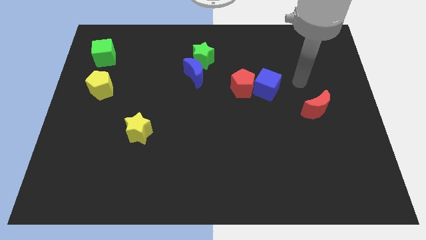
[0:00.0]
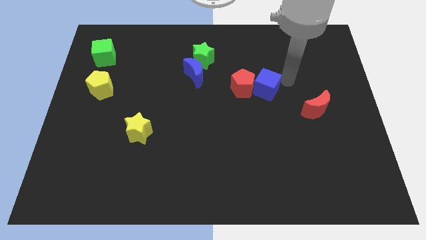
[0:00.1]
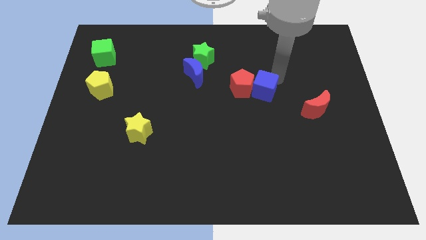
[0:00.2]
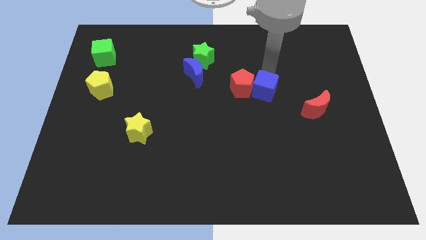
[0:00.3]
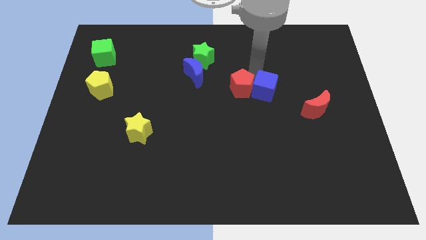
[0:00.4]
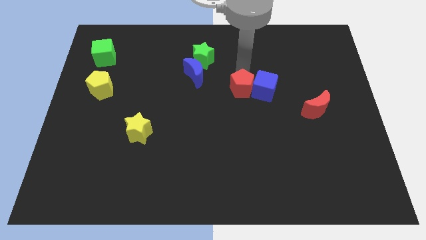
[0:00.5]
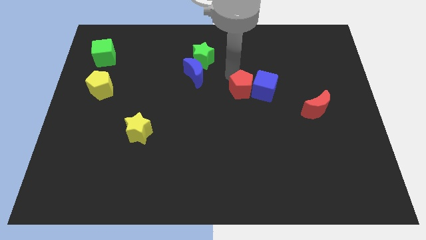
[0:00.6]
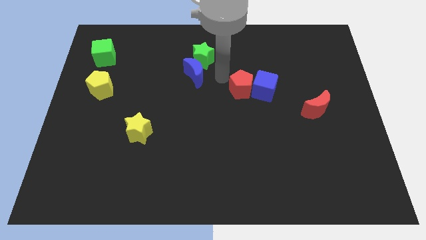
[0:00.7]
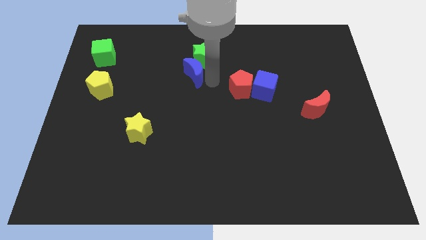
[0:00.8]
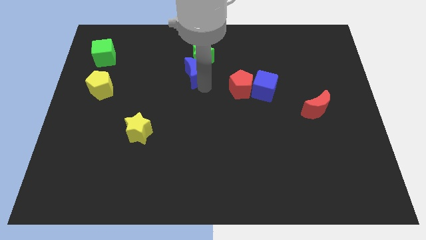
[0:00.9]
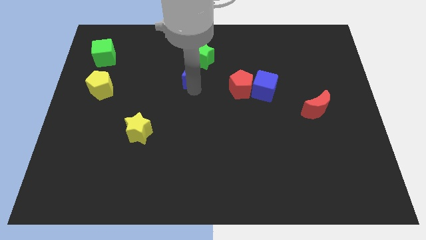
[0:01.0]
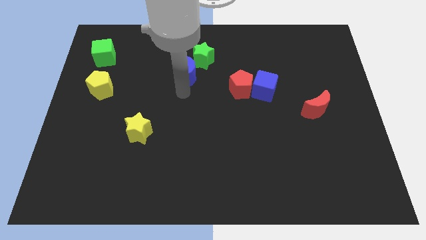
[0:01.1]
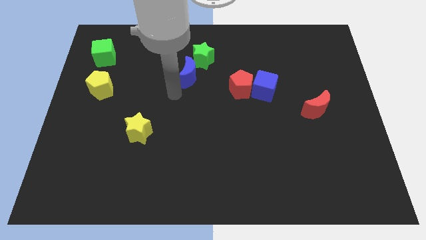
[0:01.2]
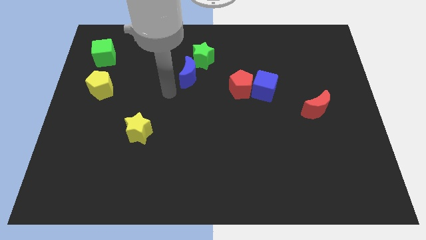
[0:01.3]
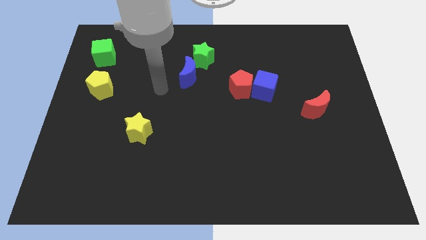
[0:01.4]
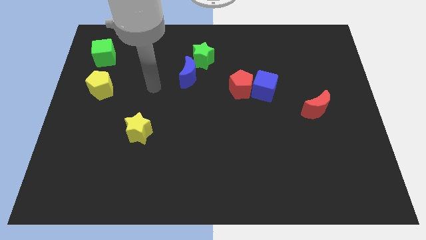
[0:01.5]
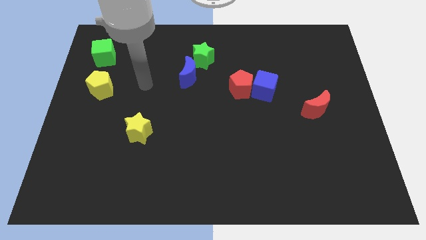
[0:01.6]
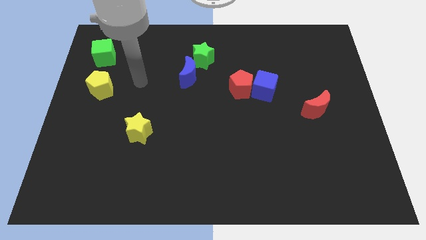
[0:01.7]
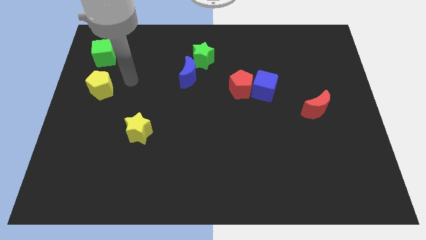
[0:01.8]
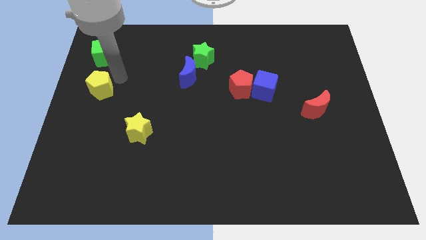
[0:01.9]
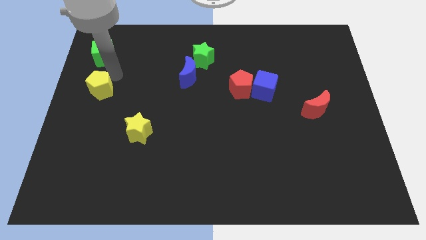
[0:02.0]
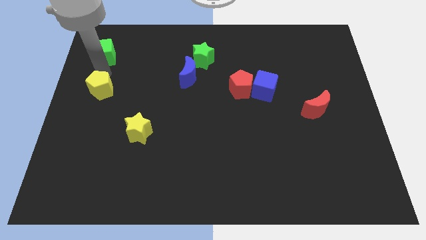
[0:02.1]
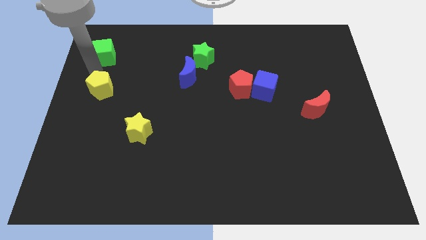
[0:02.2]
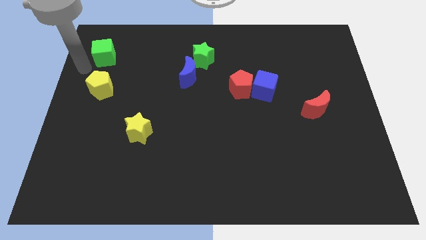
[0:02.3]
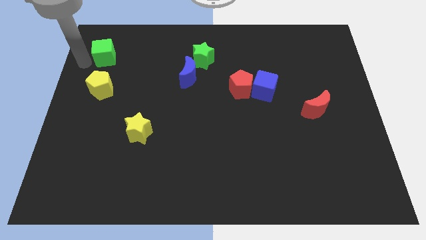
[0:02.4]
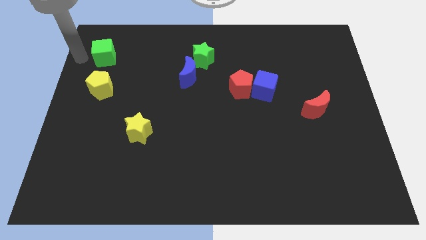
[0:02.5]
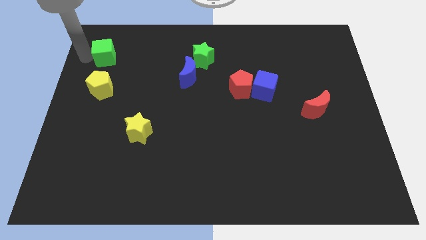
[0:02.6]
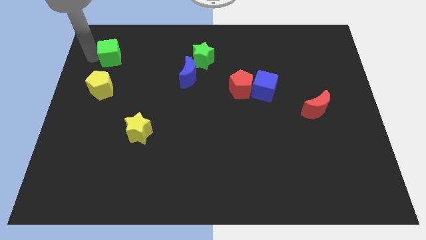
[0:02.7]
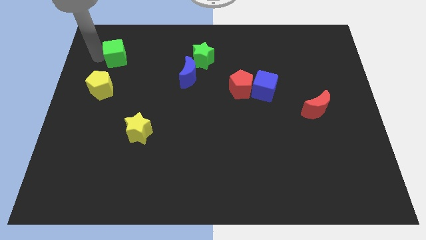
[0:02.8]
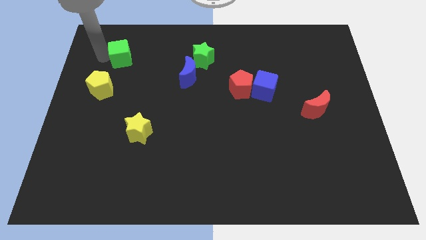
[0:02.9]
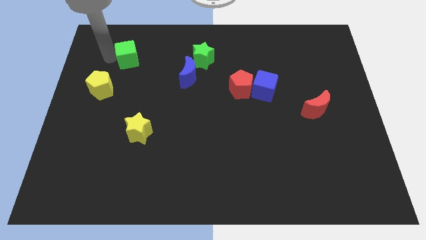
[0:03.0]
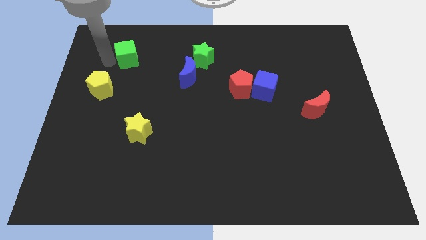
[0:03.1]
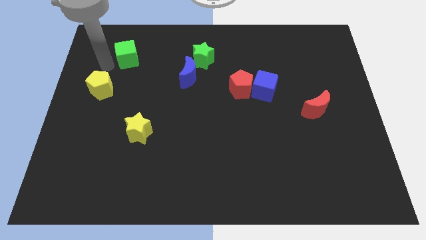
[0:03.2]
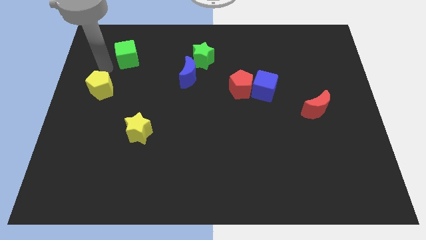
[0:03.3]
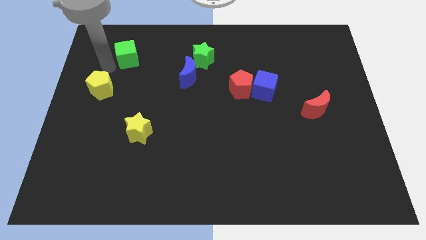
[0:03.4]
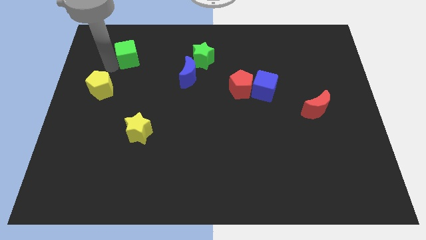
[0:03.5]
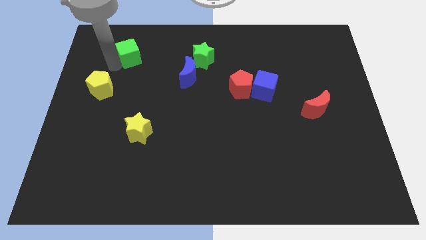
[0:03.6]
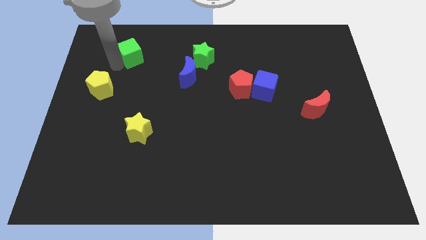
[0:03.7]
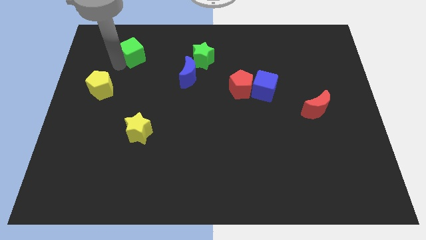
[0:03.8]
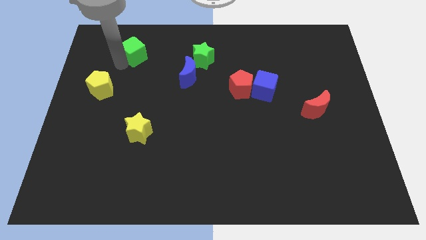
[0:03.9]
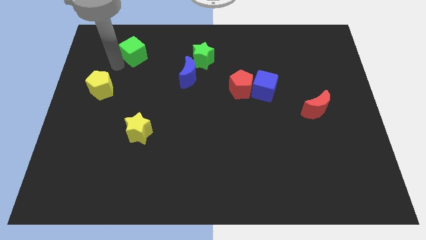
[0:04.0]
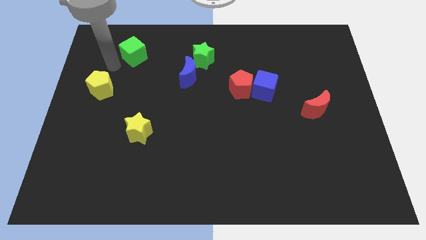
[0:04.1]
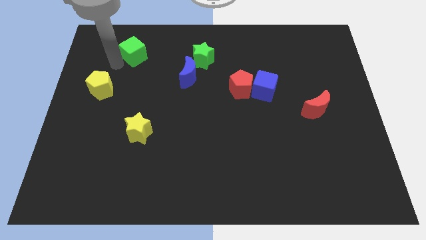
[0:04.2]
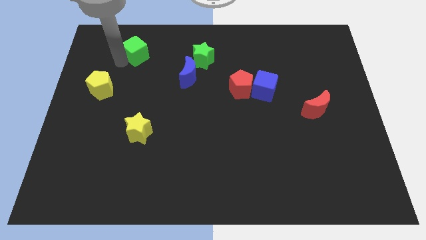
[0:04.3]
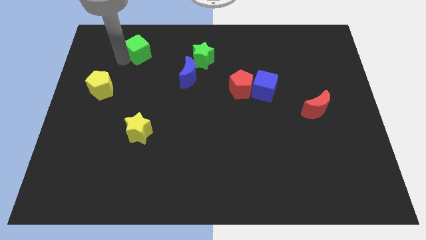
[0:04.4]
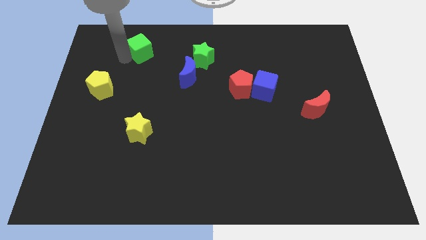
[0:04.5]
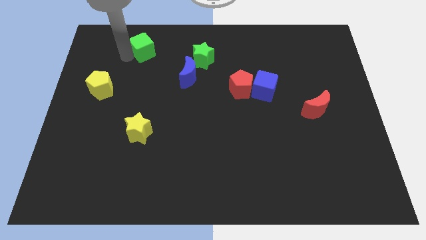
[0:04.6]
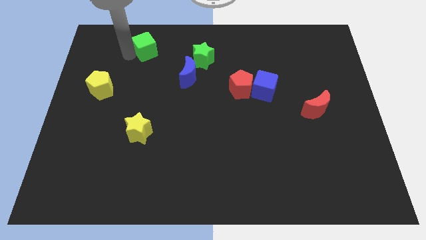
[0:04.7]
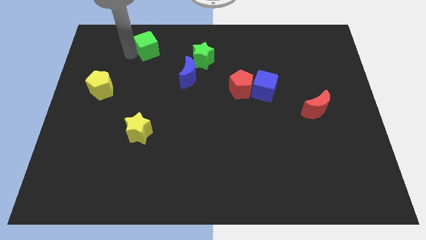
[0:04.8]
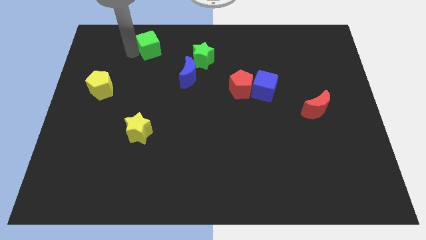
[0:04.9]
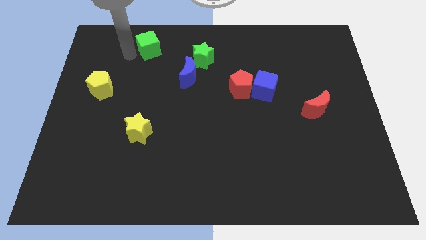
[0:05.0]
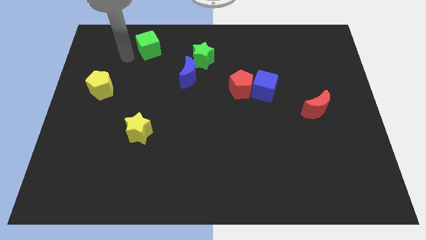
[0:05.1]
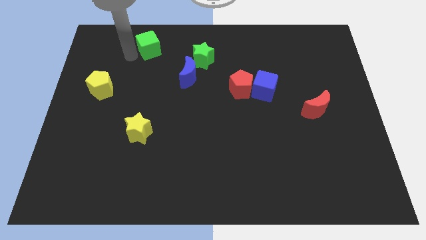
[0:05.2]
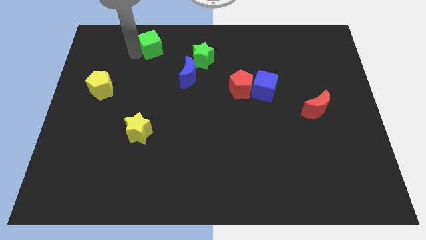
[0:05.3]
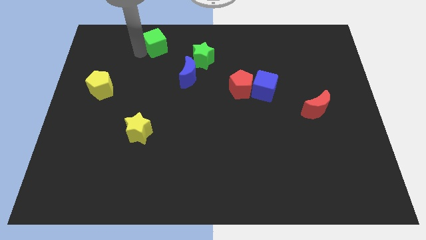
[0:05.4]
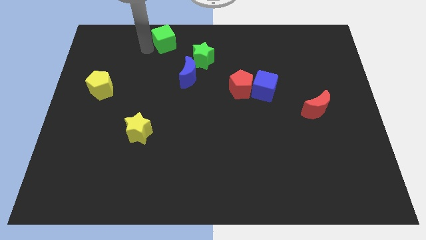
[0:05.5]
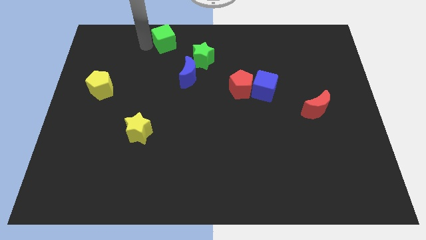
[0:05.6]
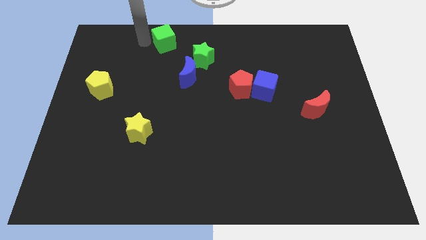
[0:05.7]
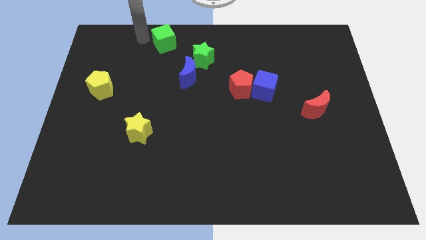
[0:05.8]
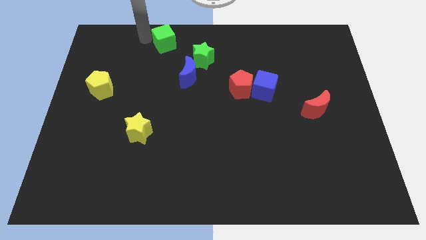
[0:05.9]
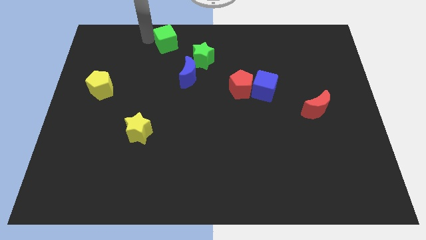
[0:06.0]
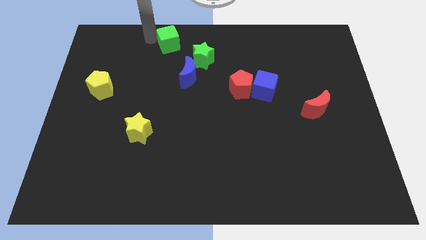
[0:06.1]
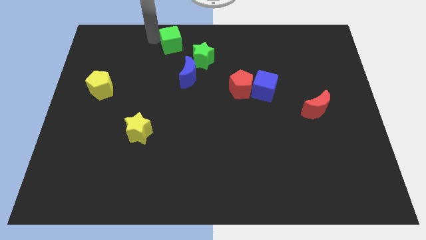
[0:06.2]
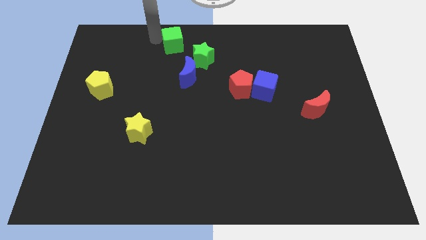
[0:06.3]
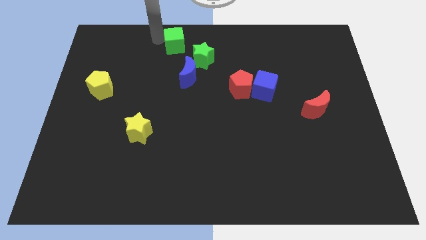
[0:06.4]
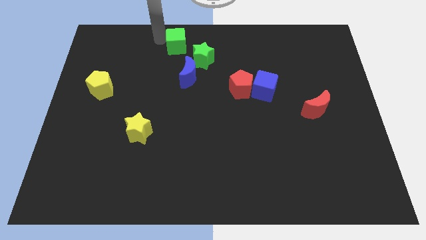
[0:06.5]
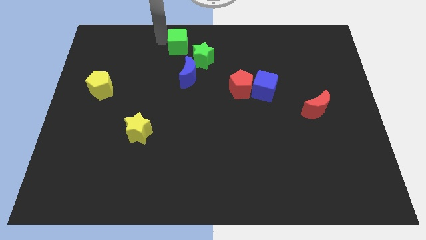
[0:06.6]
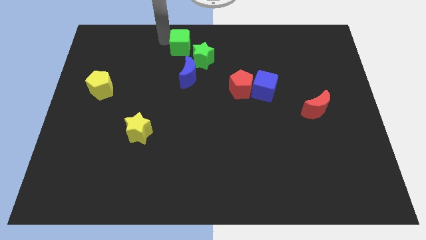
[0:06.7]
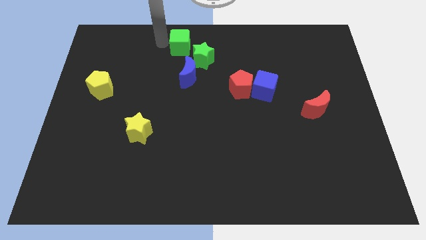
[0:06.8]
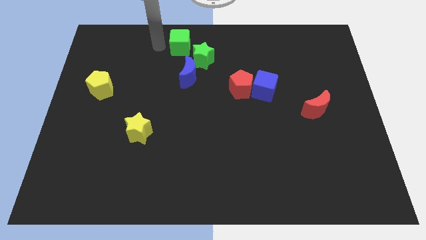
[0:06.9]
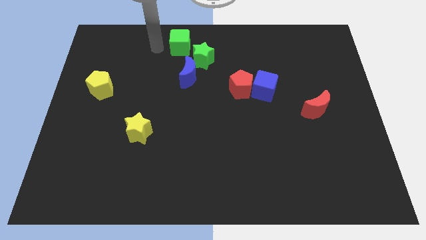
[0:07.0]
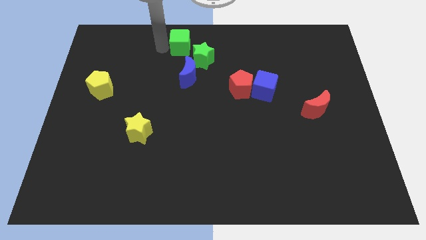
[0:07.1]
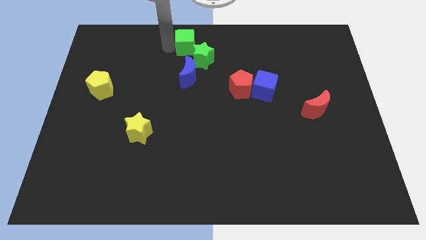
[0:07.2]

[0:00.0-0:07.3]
slide the green cube right

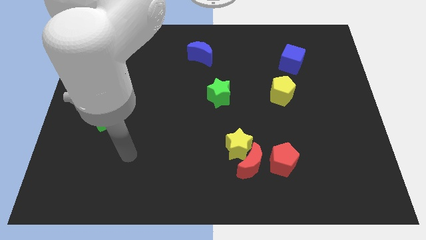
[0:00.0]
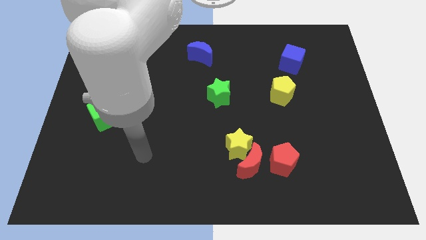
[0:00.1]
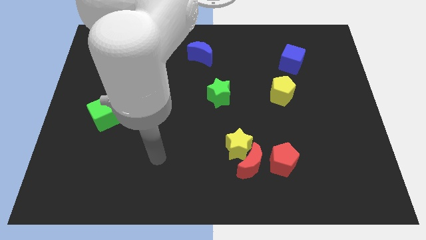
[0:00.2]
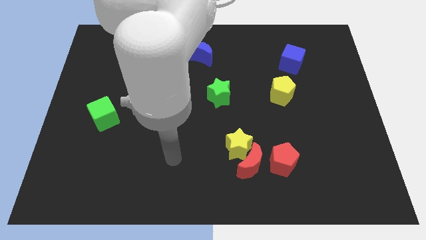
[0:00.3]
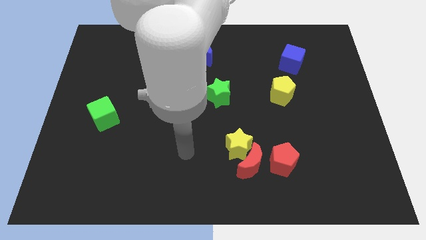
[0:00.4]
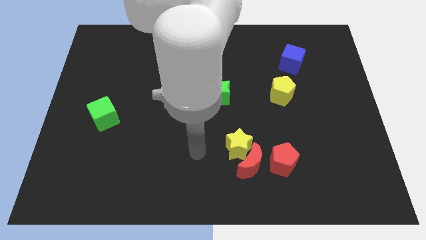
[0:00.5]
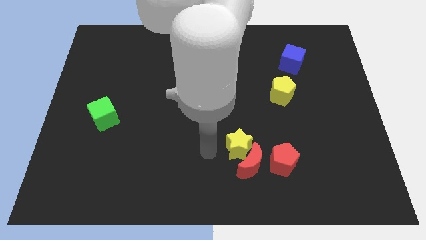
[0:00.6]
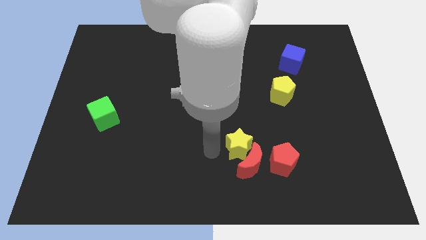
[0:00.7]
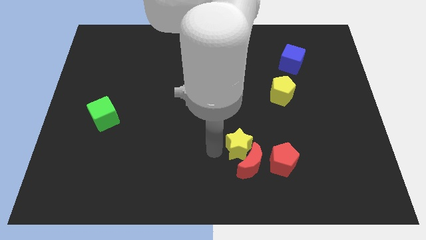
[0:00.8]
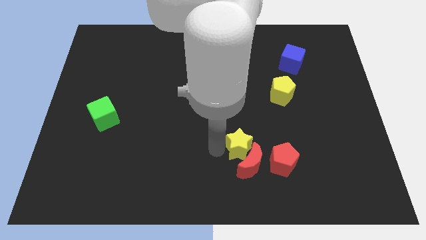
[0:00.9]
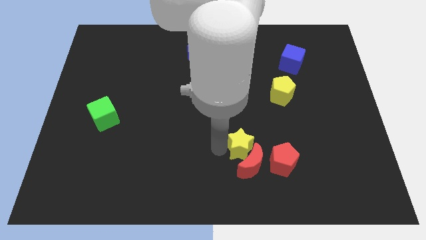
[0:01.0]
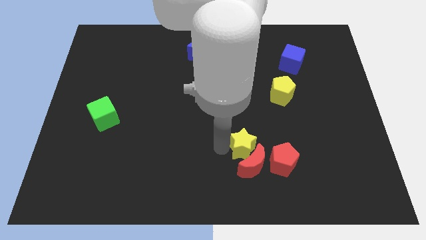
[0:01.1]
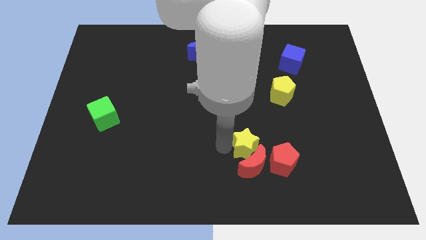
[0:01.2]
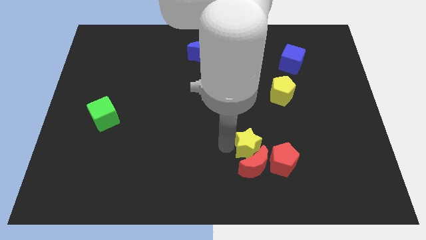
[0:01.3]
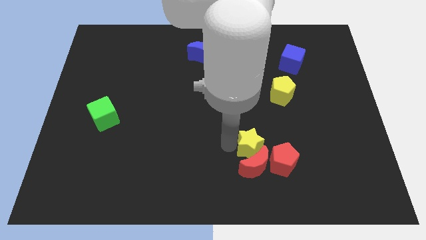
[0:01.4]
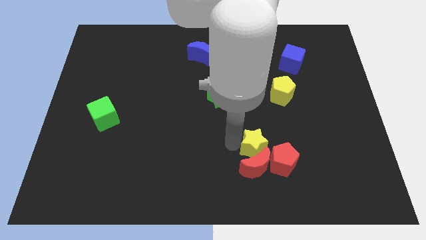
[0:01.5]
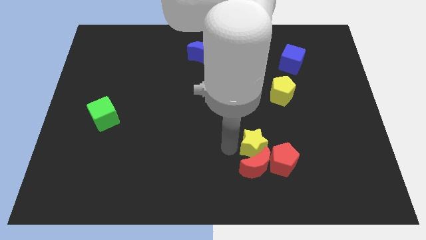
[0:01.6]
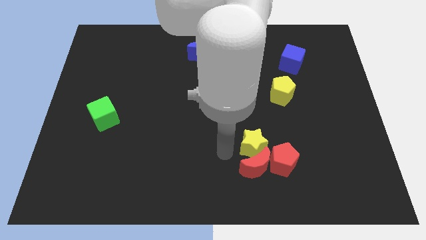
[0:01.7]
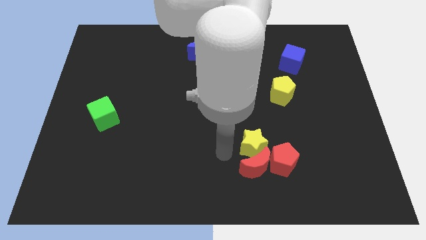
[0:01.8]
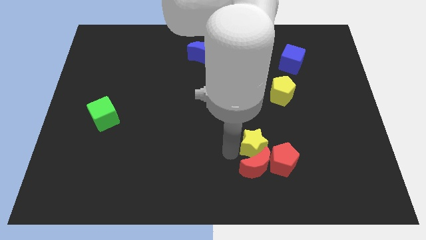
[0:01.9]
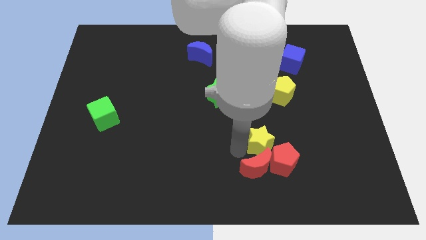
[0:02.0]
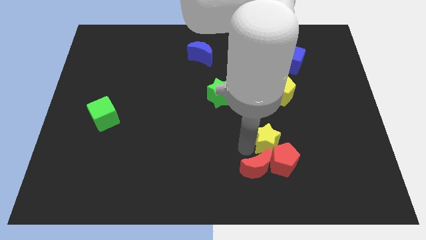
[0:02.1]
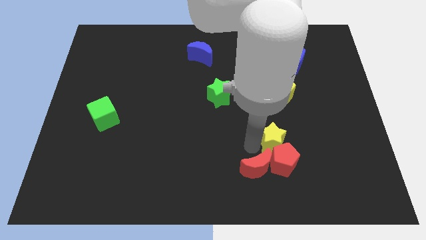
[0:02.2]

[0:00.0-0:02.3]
push the yellow star right somewhat
